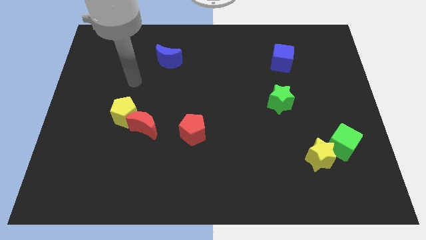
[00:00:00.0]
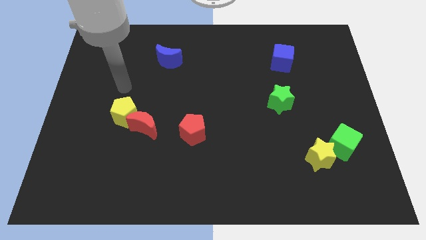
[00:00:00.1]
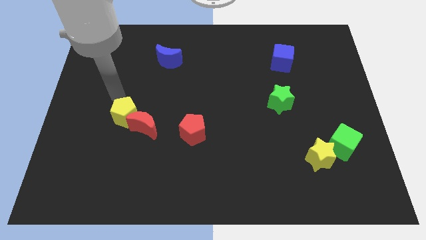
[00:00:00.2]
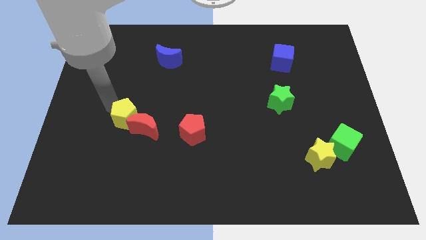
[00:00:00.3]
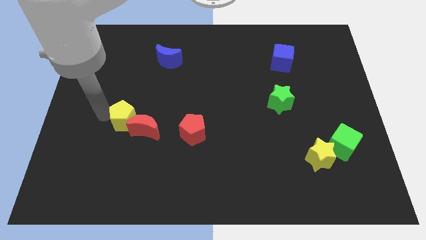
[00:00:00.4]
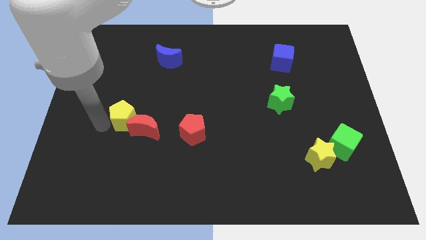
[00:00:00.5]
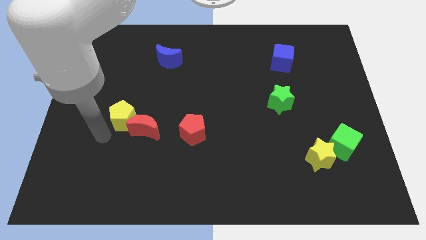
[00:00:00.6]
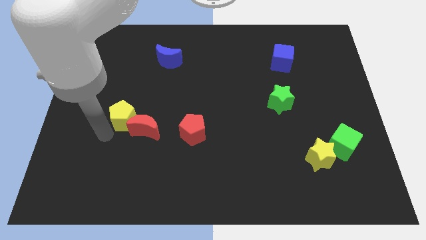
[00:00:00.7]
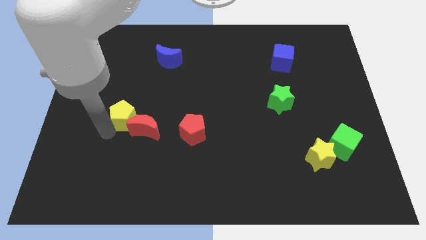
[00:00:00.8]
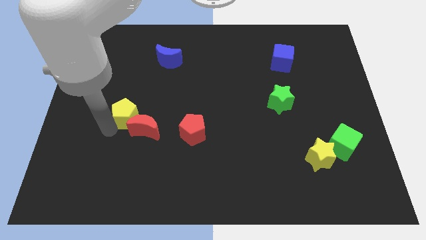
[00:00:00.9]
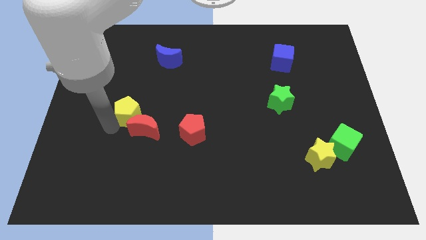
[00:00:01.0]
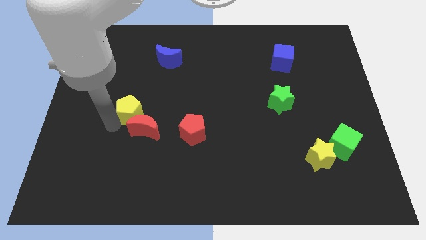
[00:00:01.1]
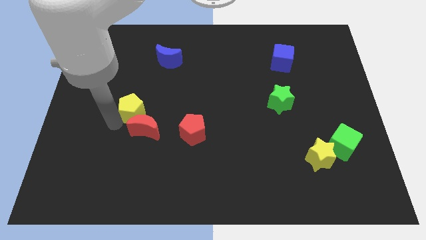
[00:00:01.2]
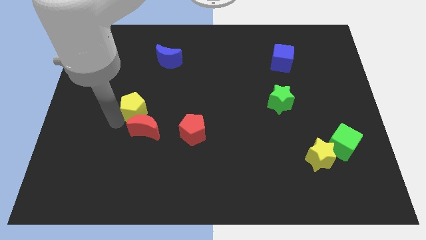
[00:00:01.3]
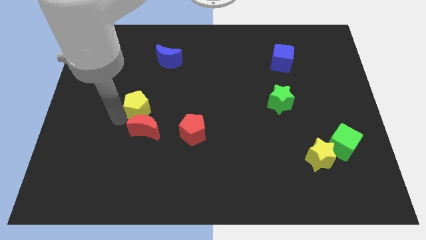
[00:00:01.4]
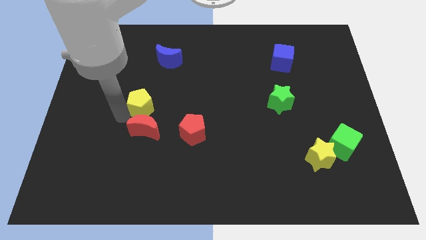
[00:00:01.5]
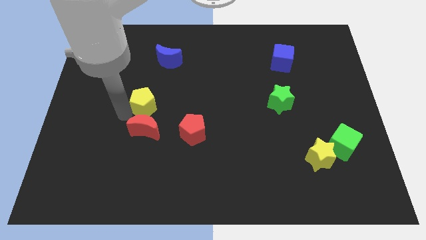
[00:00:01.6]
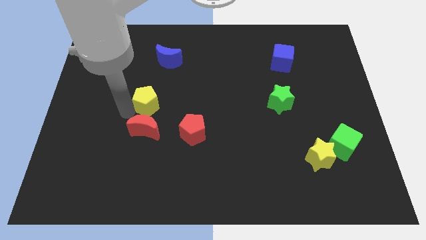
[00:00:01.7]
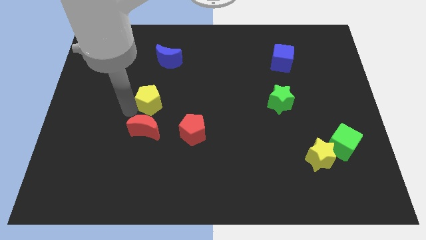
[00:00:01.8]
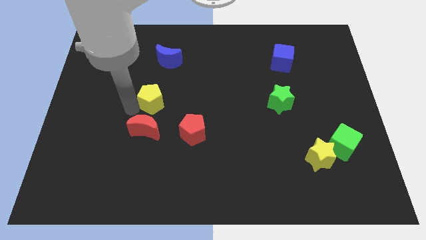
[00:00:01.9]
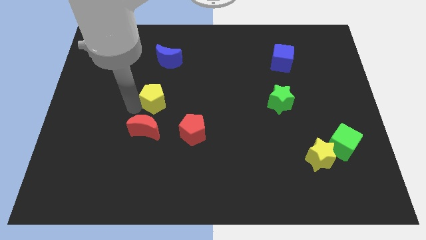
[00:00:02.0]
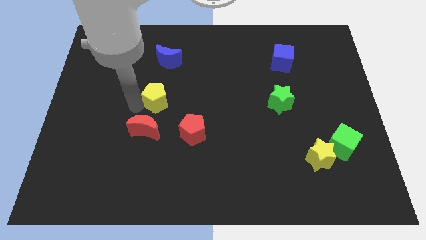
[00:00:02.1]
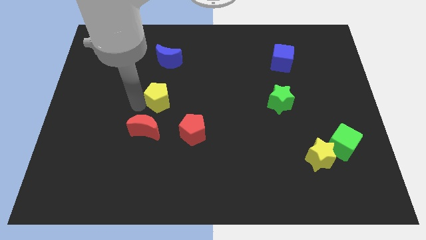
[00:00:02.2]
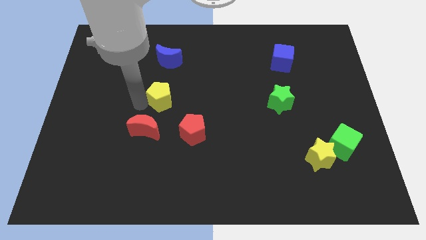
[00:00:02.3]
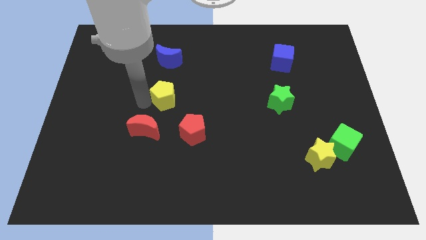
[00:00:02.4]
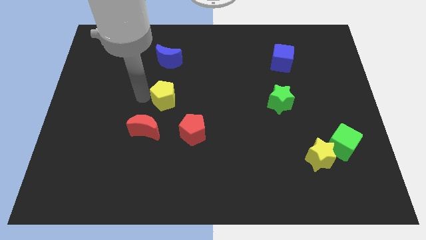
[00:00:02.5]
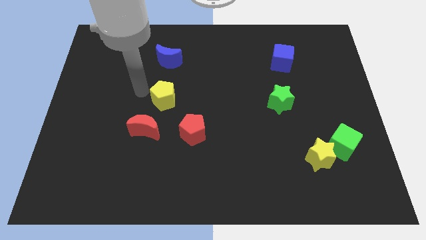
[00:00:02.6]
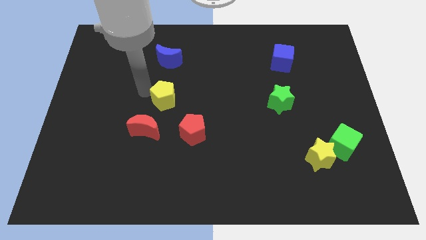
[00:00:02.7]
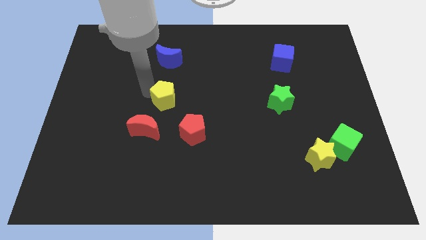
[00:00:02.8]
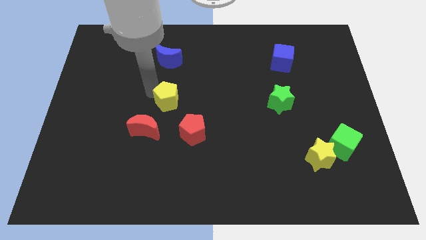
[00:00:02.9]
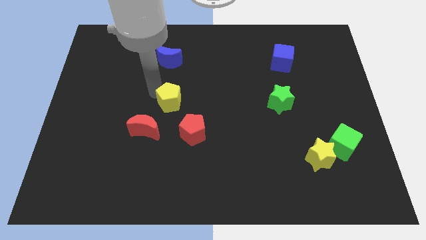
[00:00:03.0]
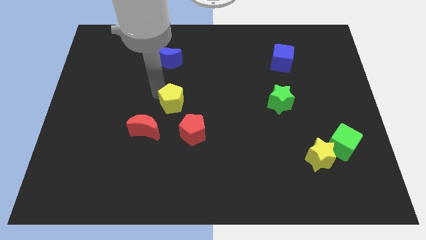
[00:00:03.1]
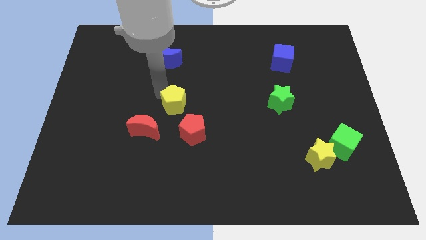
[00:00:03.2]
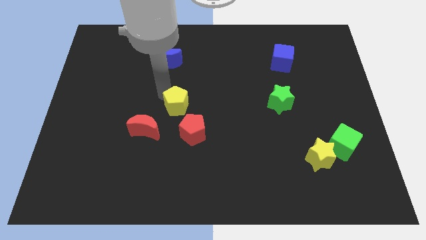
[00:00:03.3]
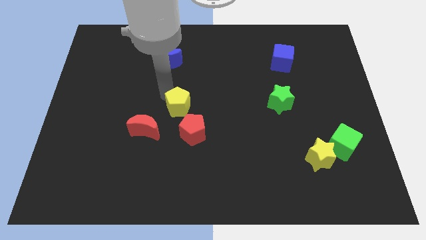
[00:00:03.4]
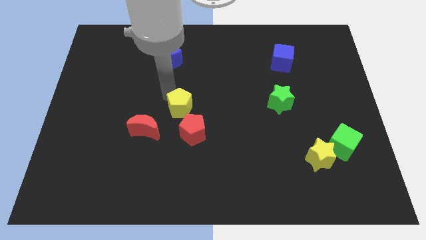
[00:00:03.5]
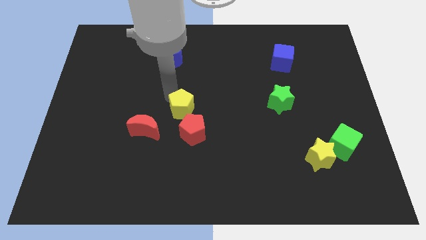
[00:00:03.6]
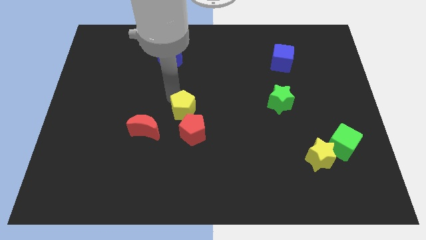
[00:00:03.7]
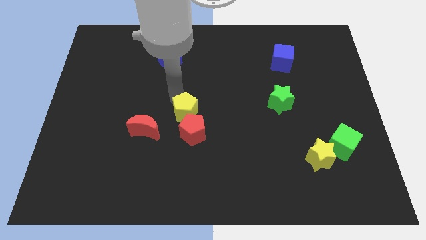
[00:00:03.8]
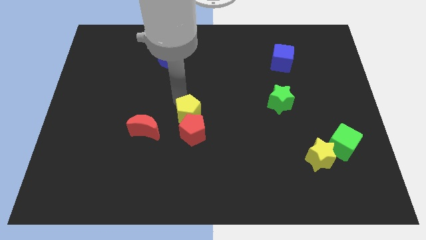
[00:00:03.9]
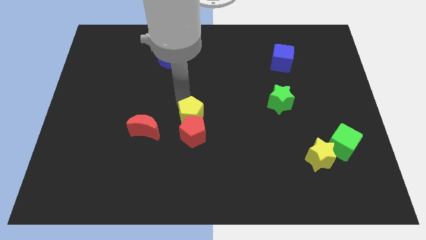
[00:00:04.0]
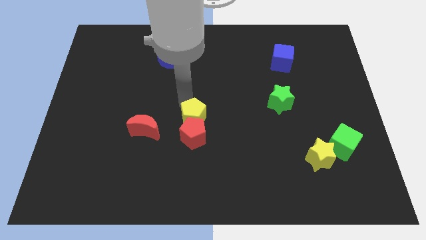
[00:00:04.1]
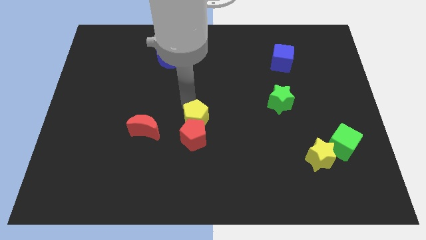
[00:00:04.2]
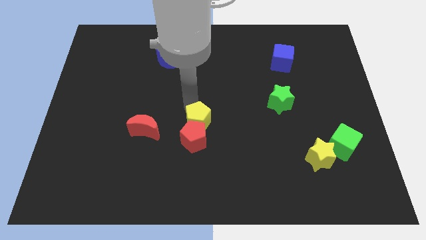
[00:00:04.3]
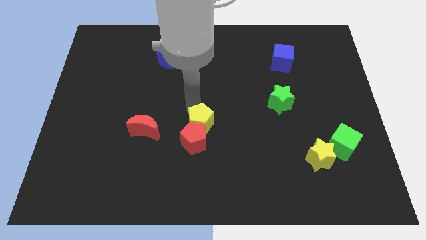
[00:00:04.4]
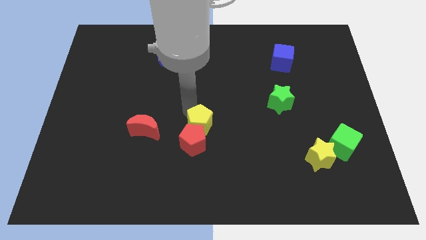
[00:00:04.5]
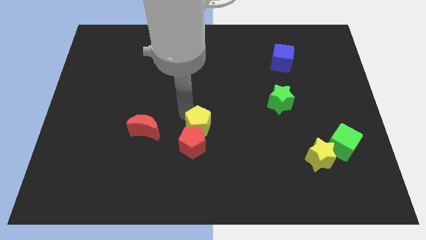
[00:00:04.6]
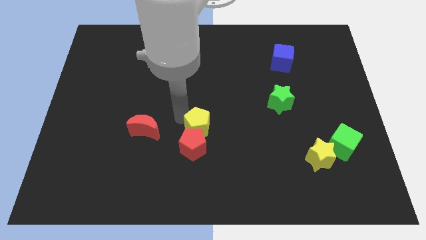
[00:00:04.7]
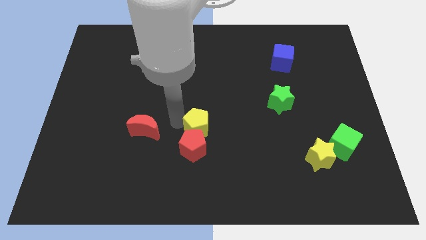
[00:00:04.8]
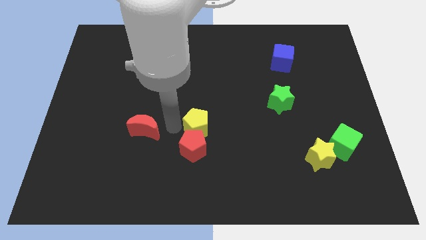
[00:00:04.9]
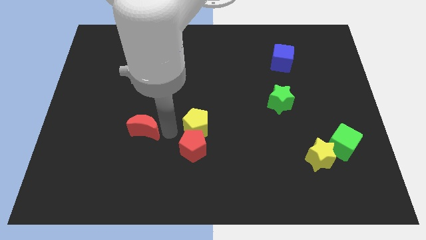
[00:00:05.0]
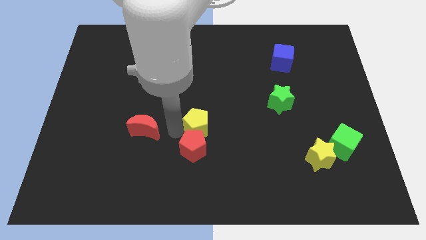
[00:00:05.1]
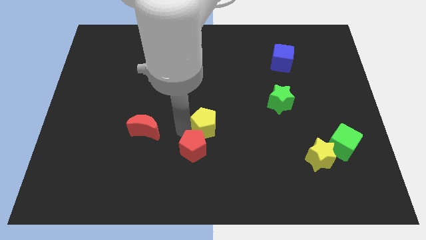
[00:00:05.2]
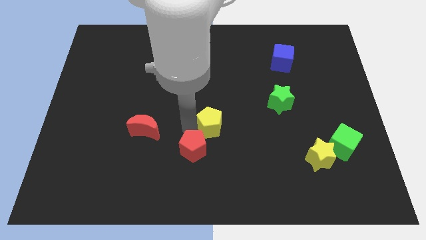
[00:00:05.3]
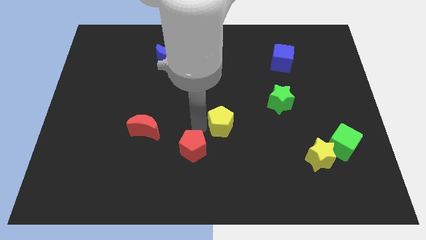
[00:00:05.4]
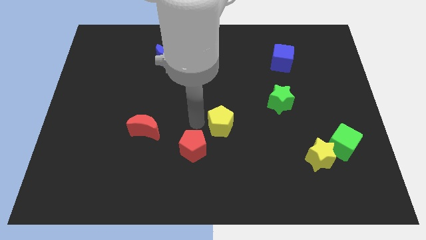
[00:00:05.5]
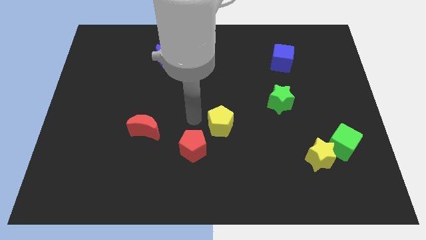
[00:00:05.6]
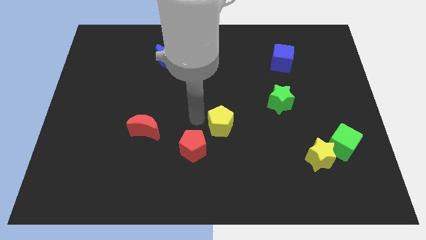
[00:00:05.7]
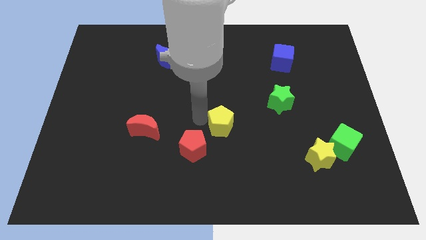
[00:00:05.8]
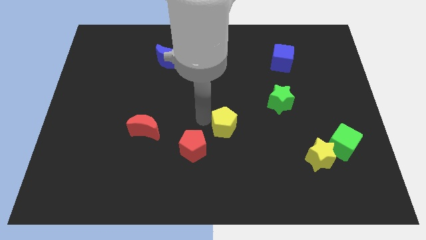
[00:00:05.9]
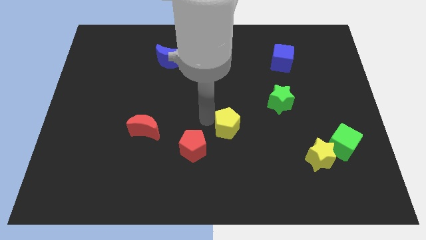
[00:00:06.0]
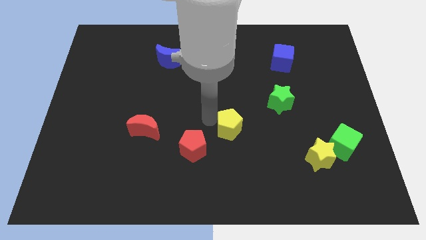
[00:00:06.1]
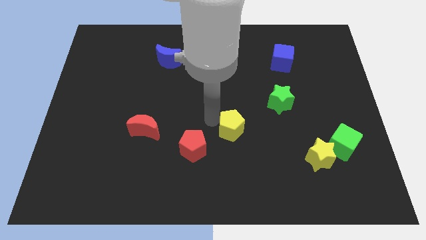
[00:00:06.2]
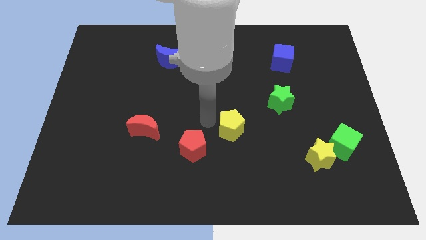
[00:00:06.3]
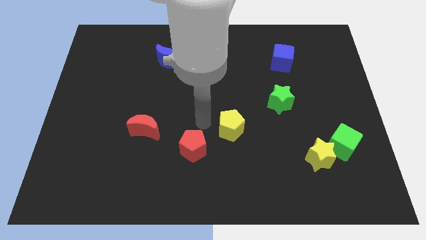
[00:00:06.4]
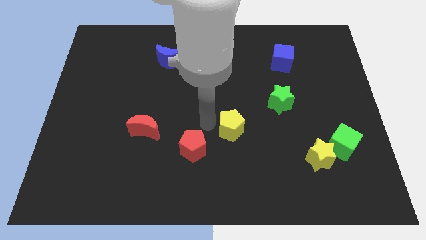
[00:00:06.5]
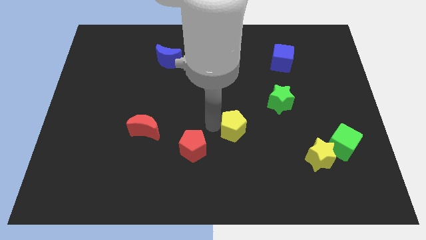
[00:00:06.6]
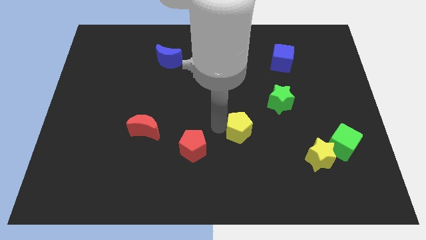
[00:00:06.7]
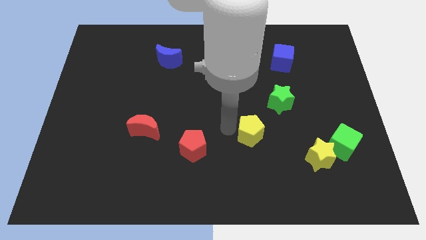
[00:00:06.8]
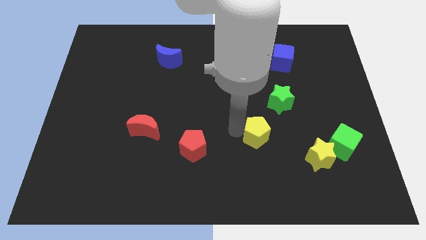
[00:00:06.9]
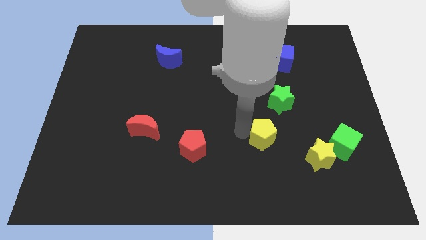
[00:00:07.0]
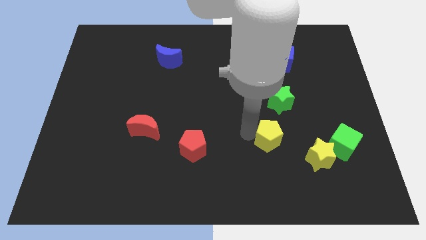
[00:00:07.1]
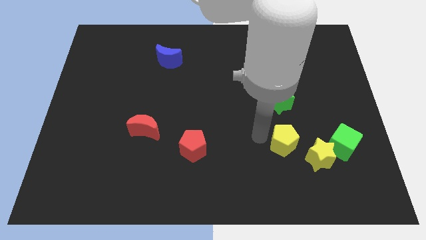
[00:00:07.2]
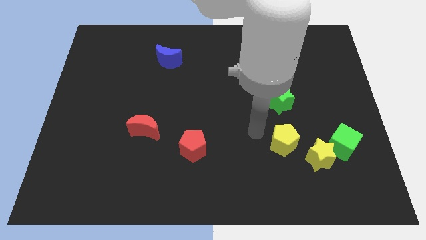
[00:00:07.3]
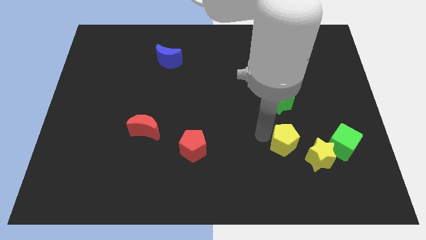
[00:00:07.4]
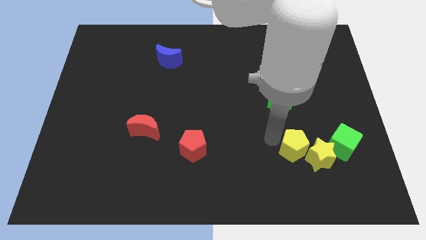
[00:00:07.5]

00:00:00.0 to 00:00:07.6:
slide the yellow pentagon towards the yellow star
